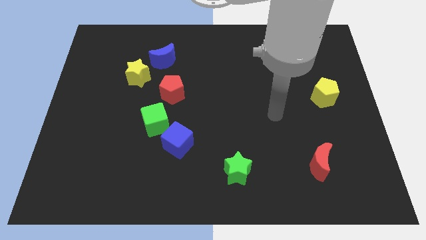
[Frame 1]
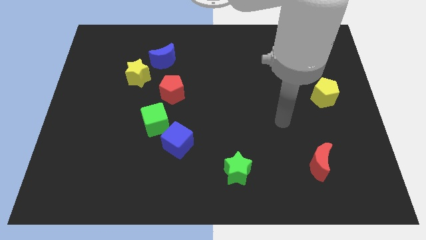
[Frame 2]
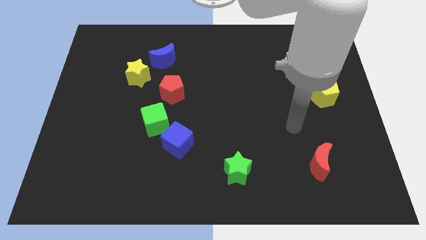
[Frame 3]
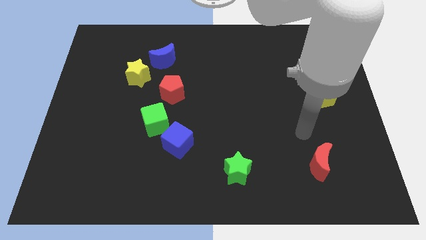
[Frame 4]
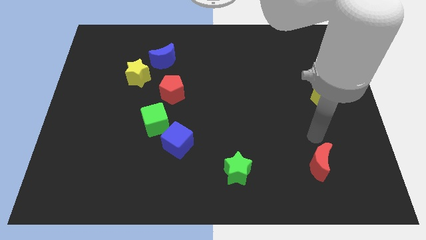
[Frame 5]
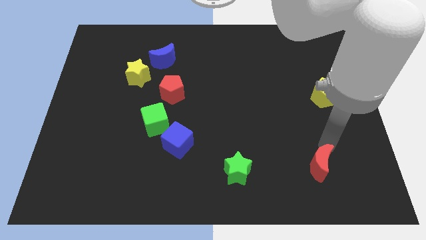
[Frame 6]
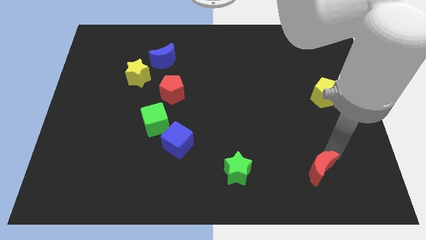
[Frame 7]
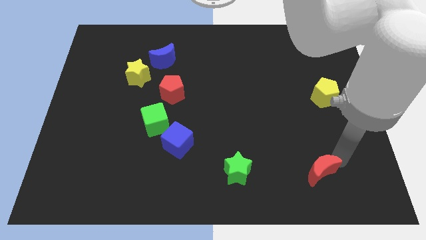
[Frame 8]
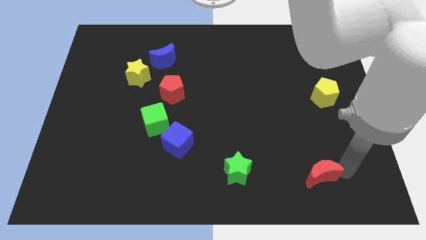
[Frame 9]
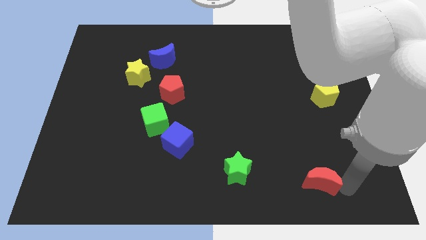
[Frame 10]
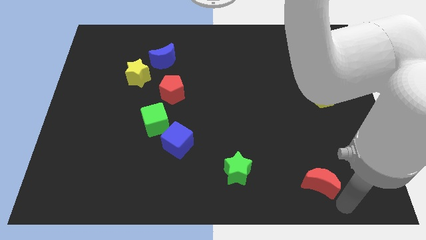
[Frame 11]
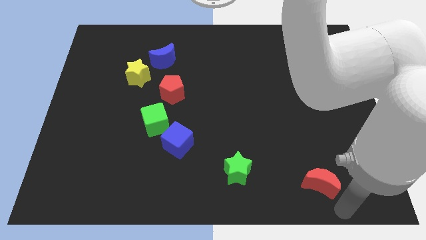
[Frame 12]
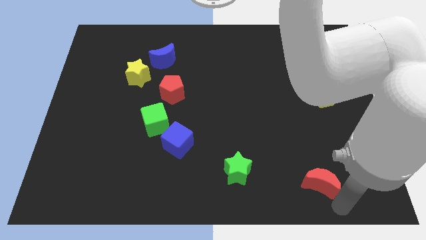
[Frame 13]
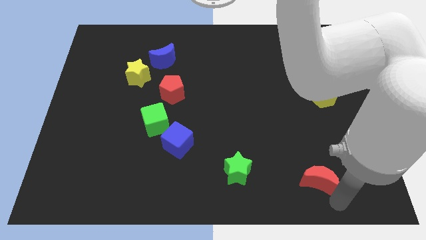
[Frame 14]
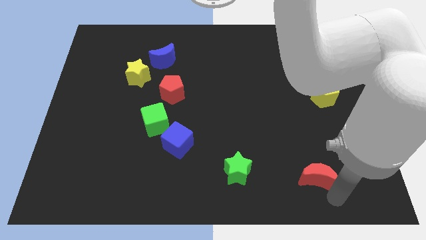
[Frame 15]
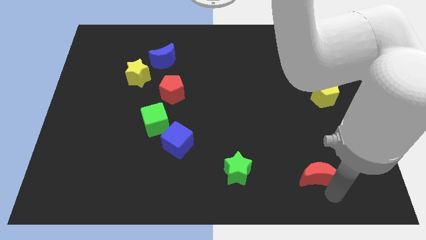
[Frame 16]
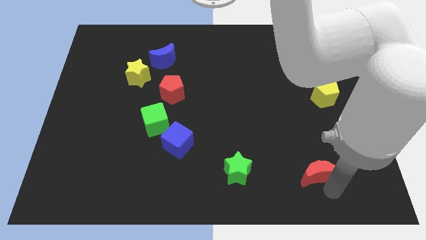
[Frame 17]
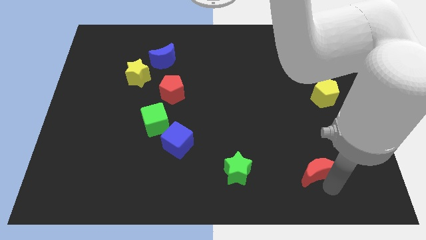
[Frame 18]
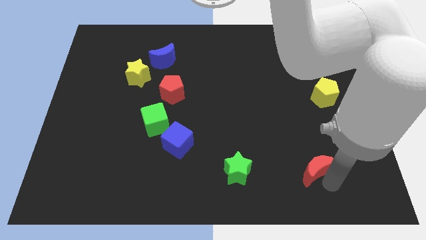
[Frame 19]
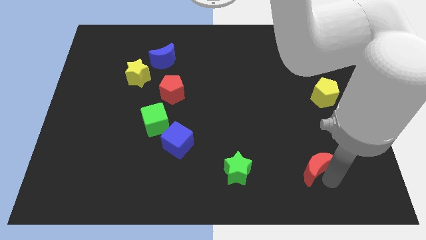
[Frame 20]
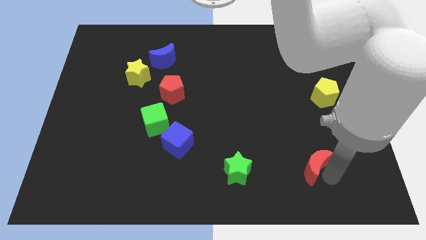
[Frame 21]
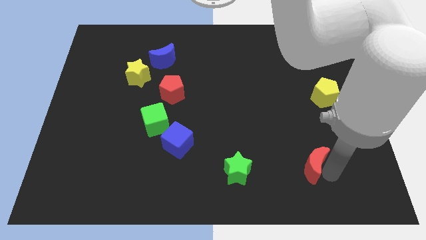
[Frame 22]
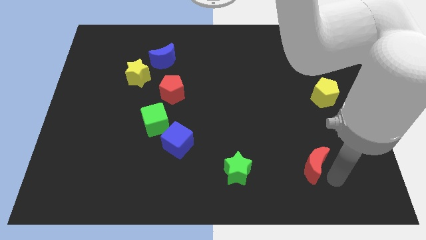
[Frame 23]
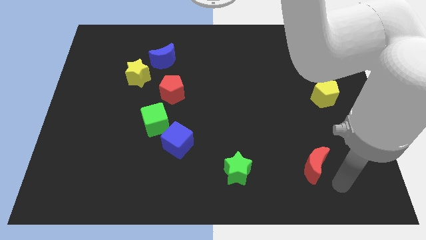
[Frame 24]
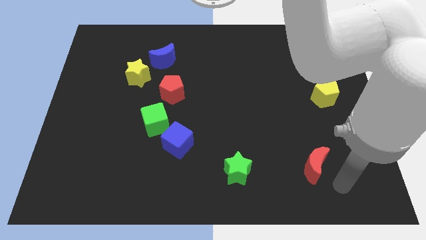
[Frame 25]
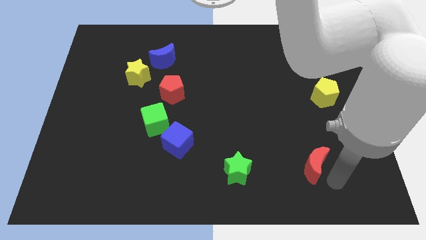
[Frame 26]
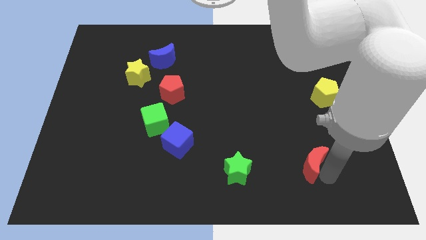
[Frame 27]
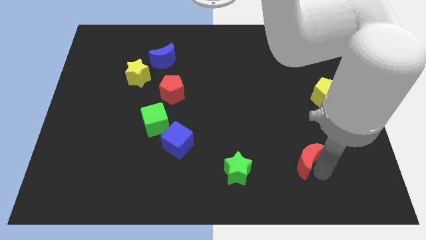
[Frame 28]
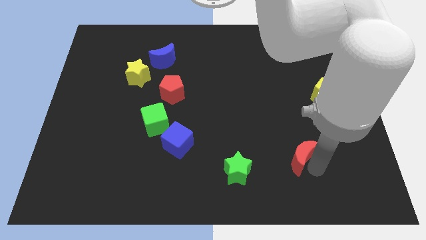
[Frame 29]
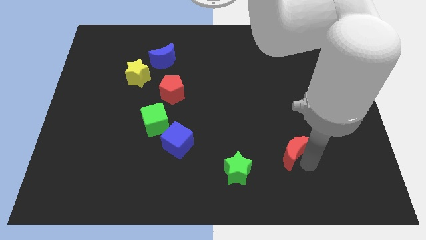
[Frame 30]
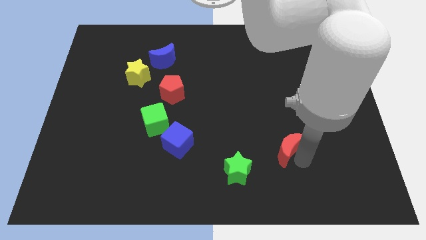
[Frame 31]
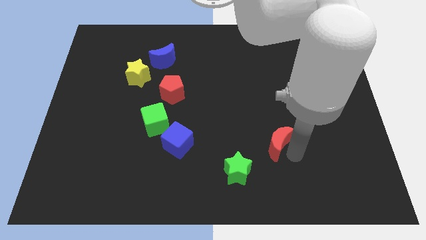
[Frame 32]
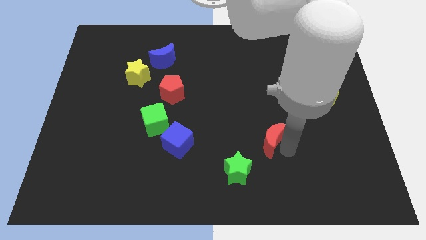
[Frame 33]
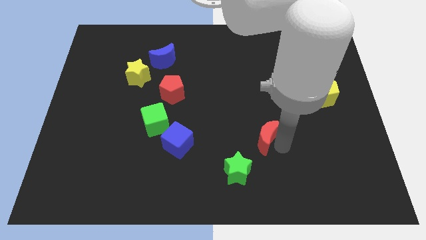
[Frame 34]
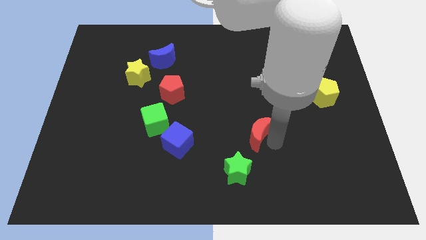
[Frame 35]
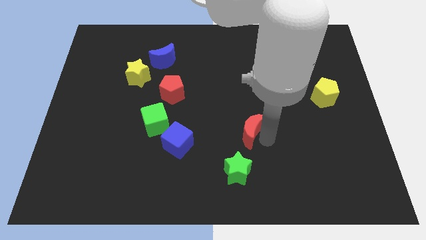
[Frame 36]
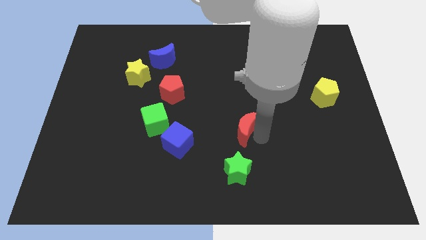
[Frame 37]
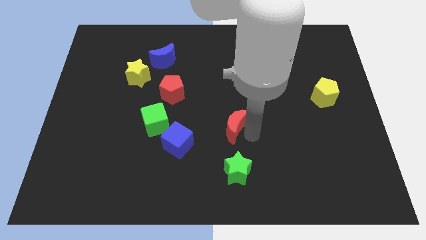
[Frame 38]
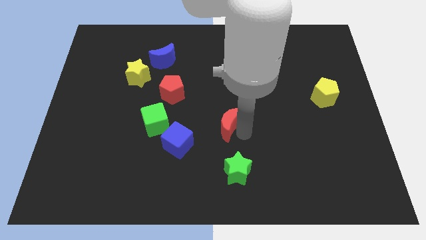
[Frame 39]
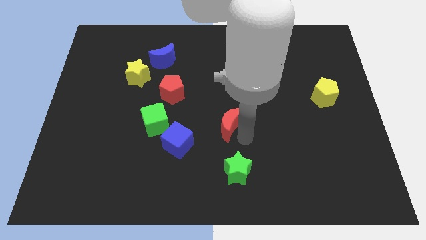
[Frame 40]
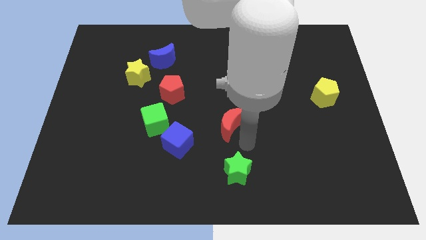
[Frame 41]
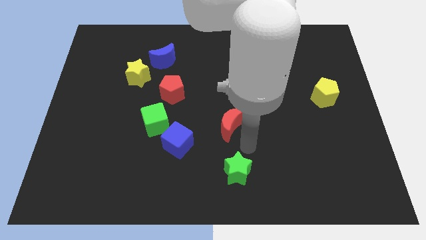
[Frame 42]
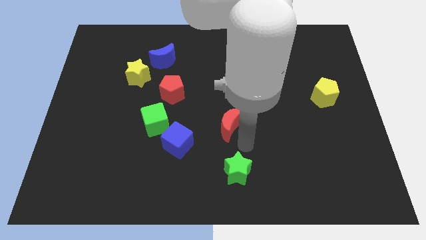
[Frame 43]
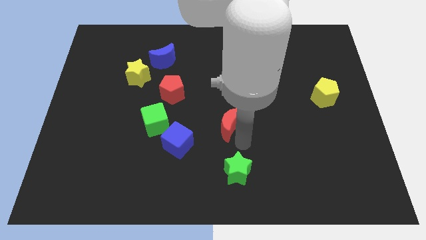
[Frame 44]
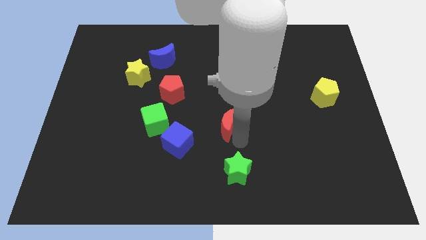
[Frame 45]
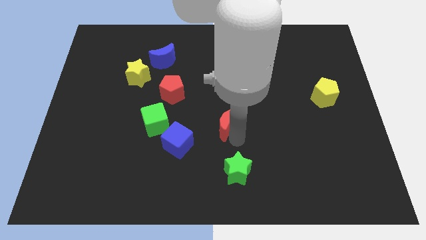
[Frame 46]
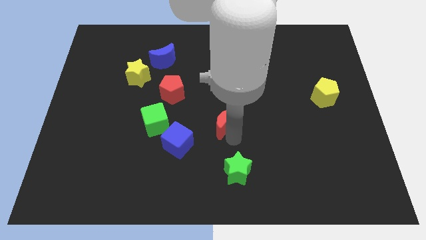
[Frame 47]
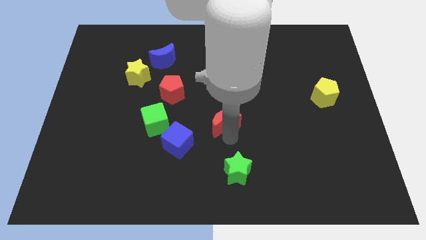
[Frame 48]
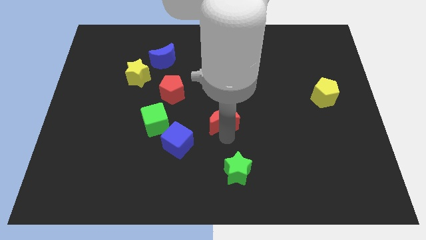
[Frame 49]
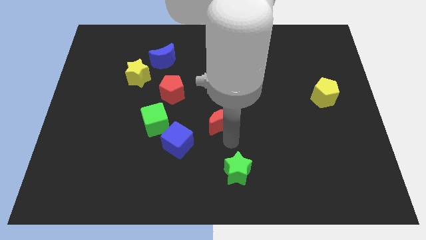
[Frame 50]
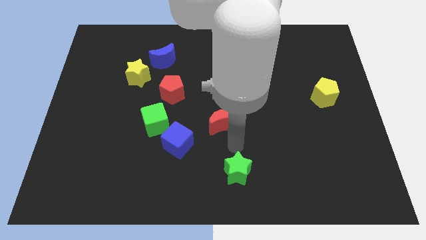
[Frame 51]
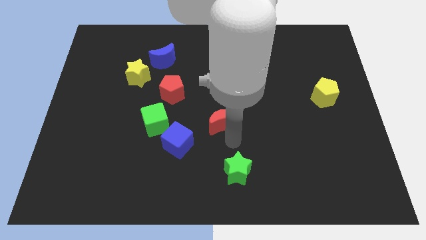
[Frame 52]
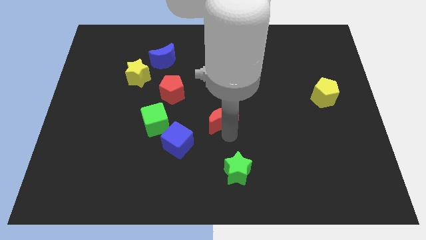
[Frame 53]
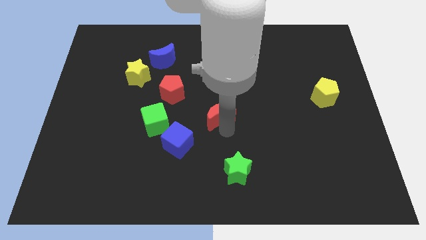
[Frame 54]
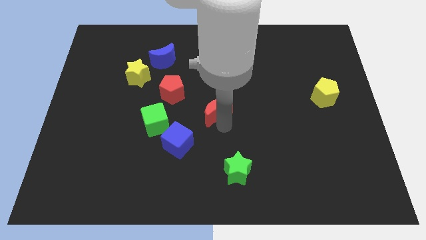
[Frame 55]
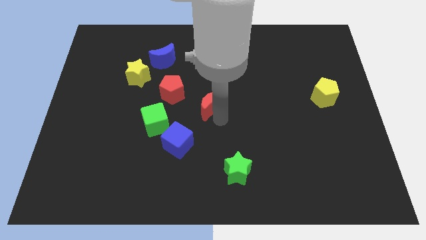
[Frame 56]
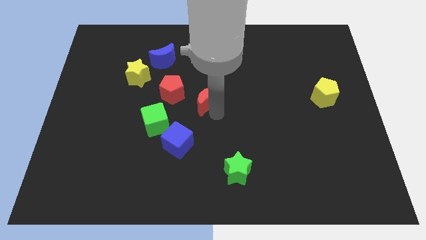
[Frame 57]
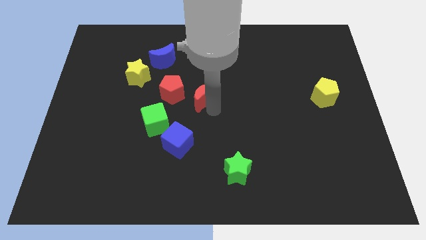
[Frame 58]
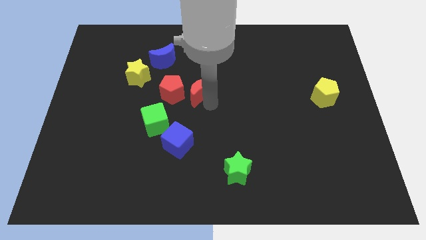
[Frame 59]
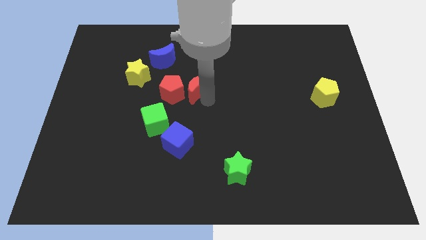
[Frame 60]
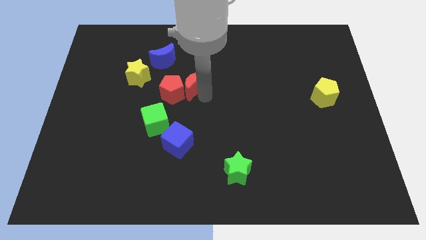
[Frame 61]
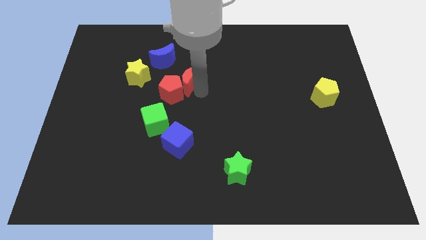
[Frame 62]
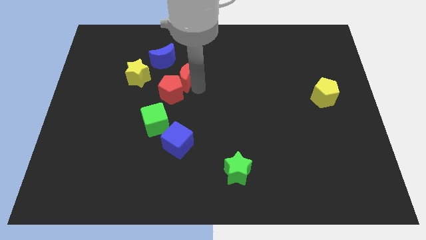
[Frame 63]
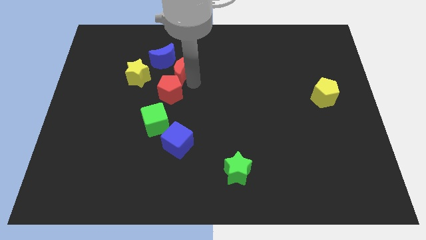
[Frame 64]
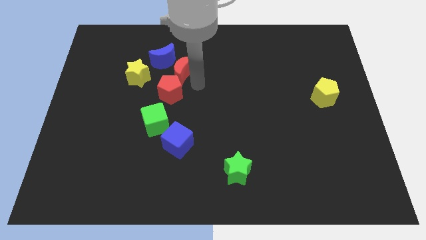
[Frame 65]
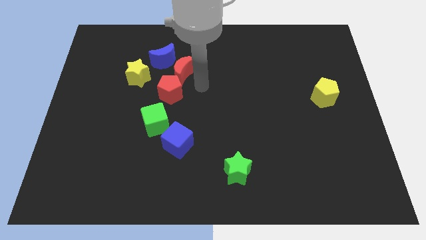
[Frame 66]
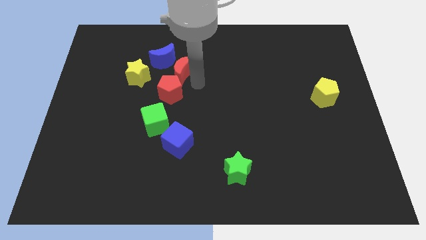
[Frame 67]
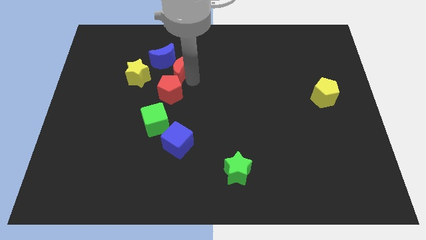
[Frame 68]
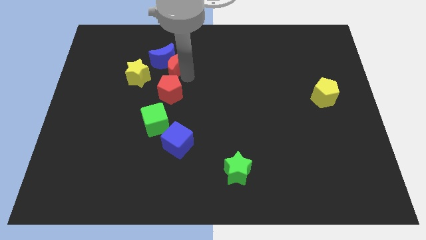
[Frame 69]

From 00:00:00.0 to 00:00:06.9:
put the red moon next to the blue moon

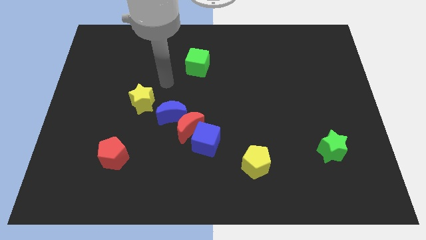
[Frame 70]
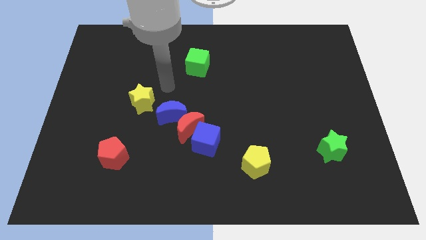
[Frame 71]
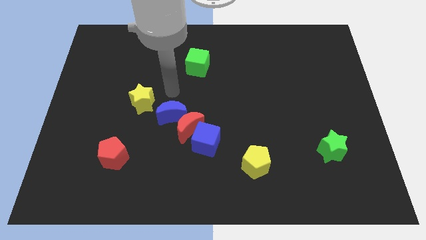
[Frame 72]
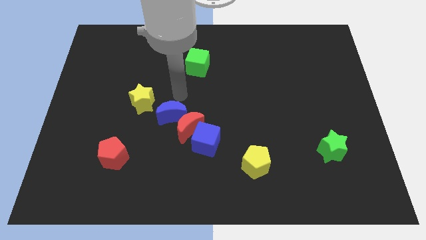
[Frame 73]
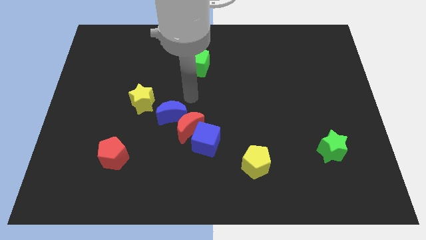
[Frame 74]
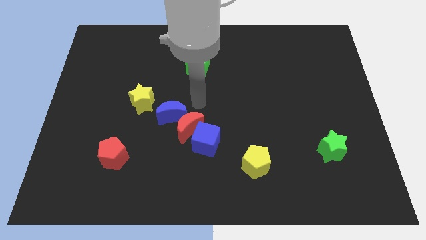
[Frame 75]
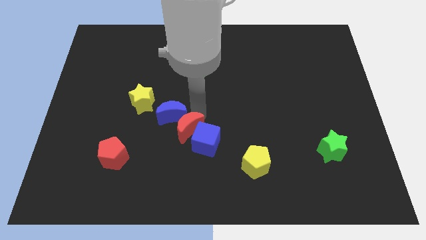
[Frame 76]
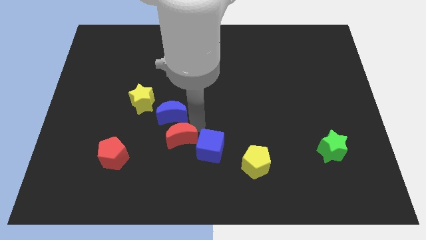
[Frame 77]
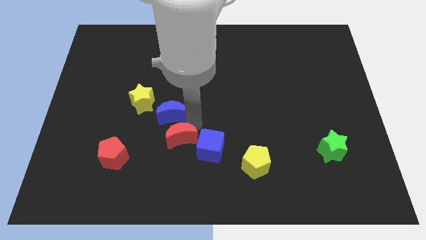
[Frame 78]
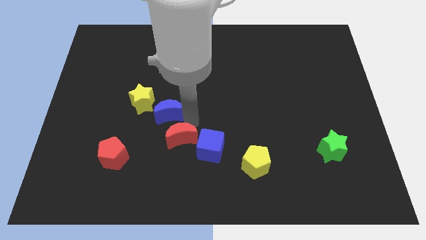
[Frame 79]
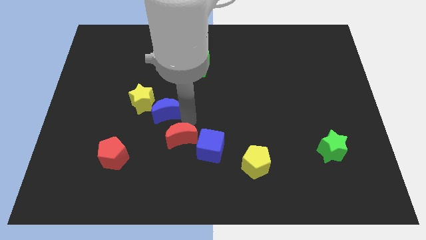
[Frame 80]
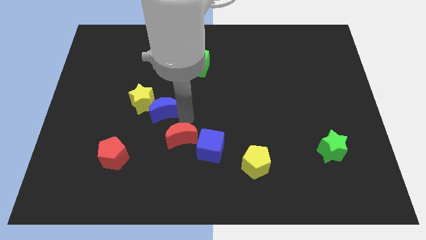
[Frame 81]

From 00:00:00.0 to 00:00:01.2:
move the blue moon next to the yellow star
